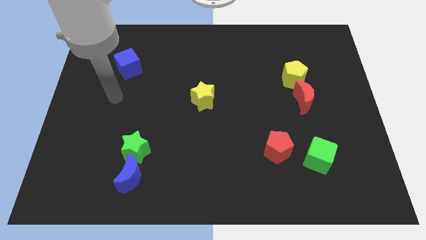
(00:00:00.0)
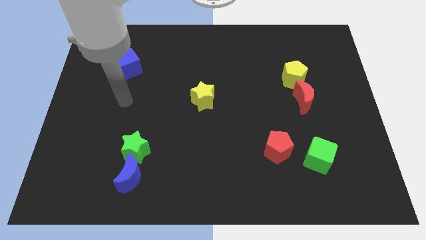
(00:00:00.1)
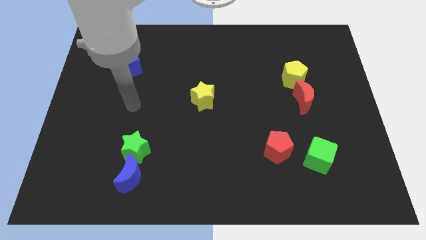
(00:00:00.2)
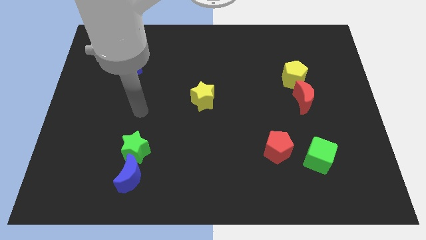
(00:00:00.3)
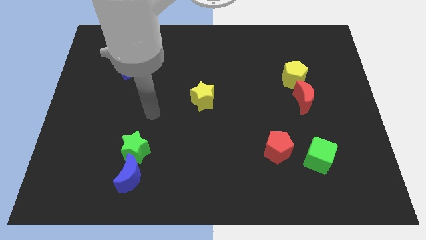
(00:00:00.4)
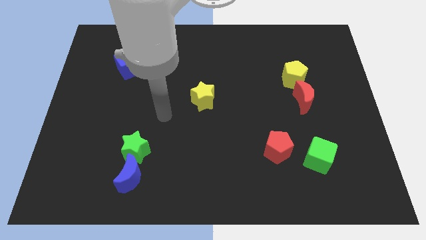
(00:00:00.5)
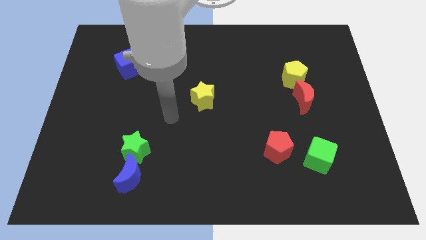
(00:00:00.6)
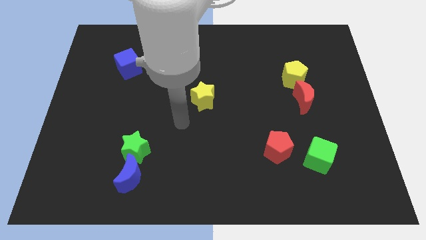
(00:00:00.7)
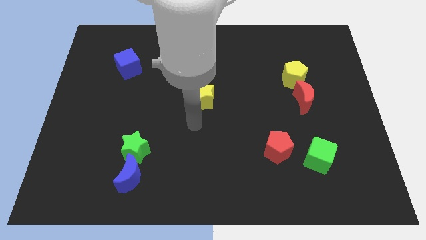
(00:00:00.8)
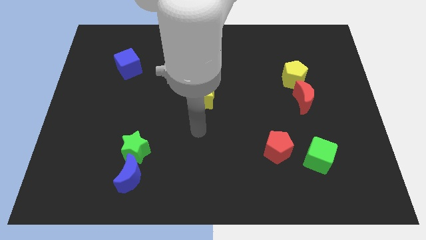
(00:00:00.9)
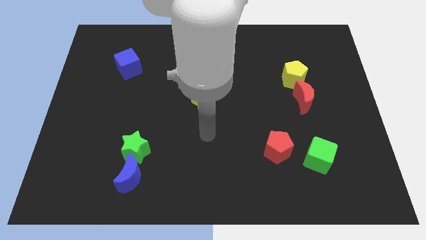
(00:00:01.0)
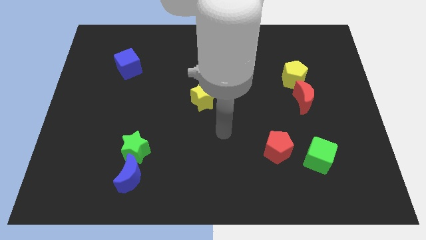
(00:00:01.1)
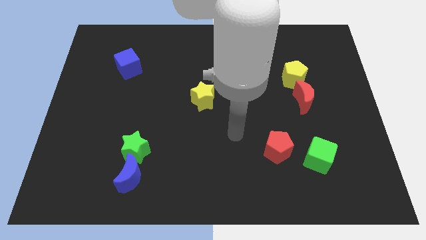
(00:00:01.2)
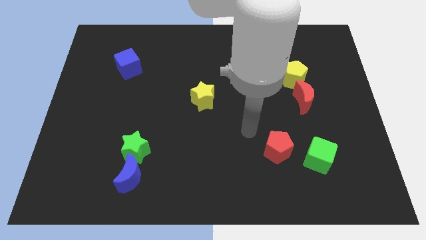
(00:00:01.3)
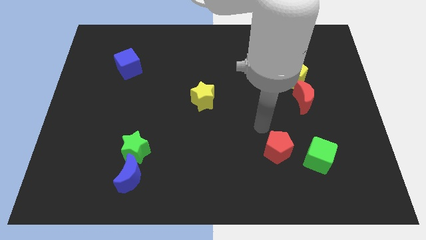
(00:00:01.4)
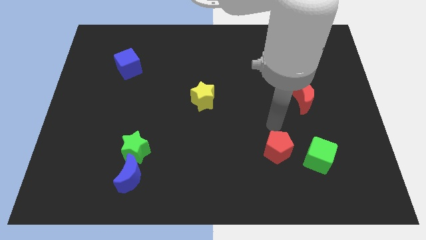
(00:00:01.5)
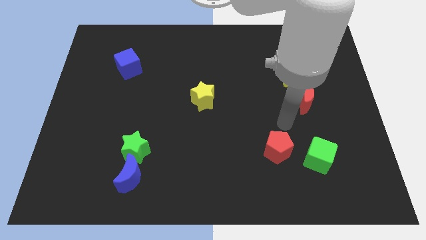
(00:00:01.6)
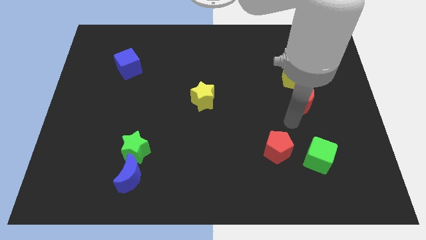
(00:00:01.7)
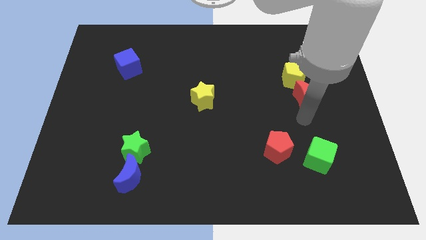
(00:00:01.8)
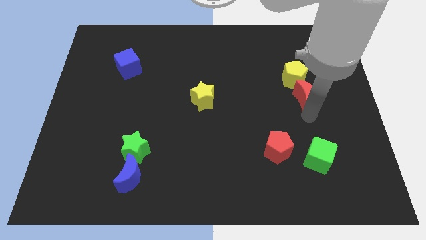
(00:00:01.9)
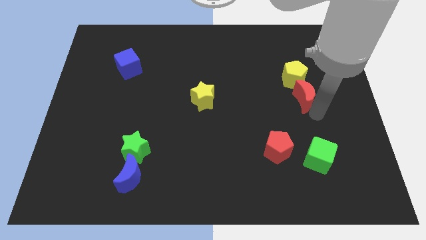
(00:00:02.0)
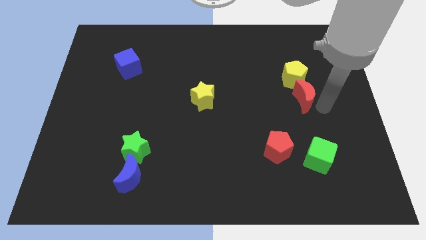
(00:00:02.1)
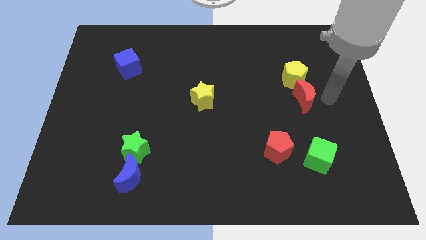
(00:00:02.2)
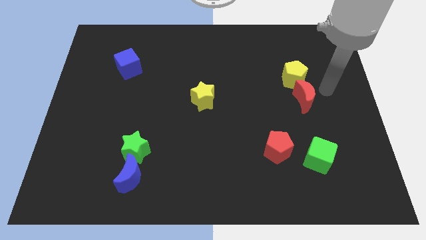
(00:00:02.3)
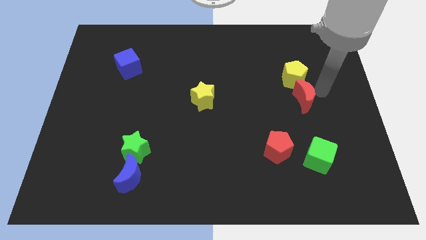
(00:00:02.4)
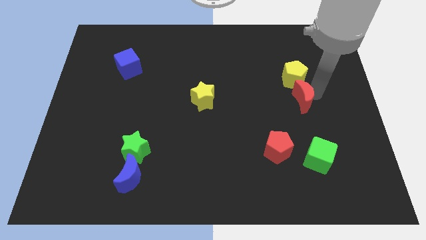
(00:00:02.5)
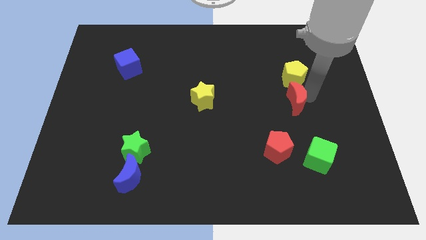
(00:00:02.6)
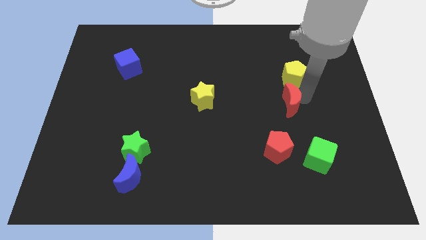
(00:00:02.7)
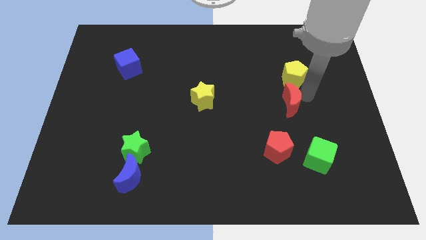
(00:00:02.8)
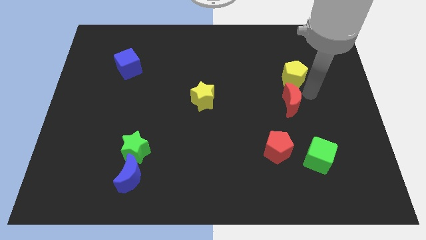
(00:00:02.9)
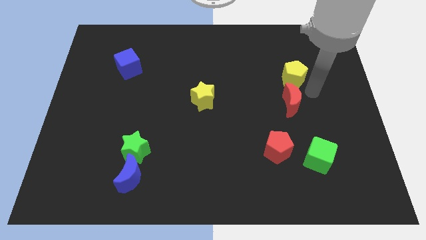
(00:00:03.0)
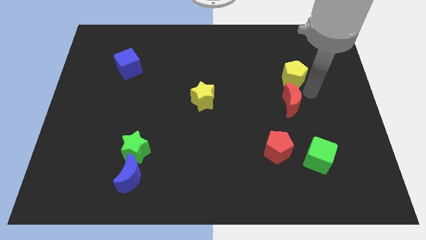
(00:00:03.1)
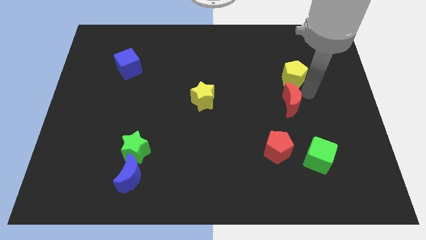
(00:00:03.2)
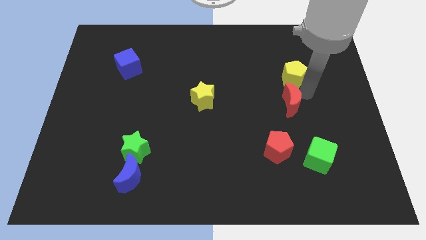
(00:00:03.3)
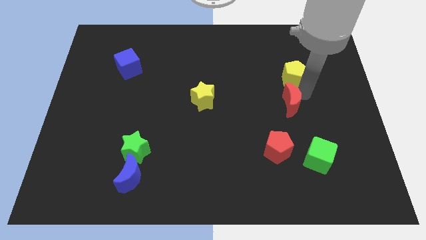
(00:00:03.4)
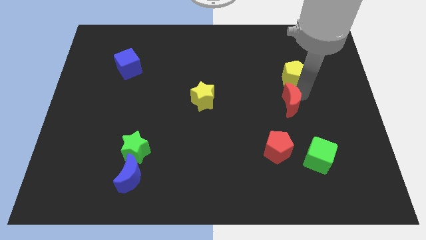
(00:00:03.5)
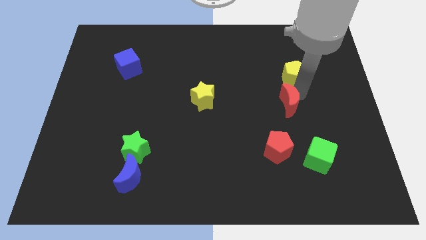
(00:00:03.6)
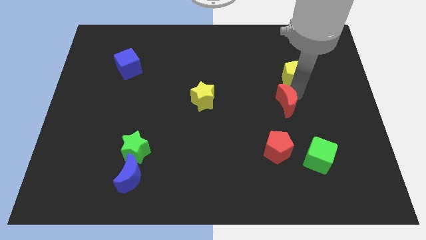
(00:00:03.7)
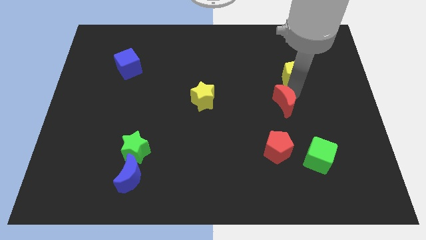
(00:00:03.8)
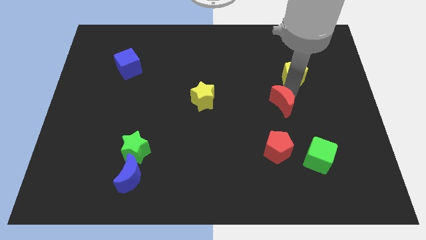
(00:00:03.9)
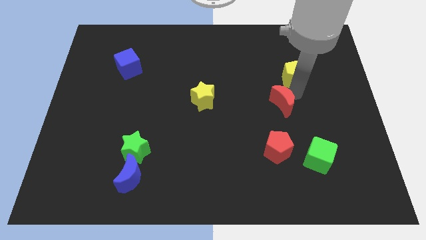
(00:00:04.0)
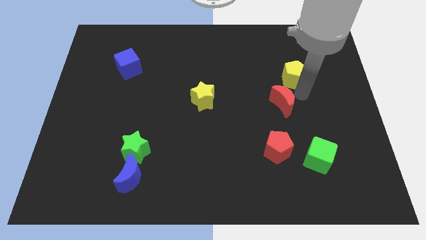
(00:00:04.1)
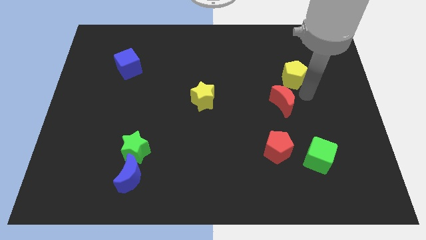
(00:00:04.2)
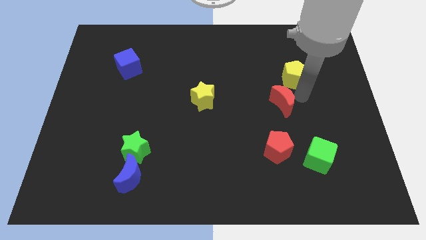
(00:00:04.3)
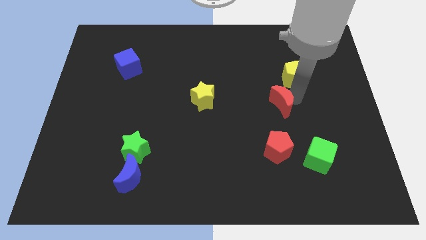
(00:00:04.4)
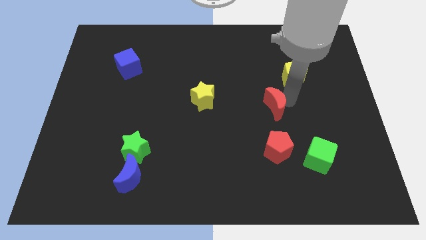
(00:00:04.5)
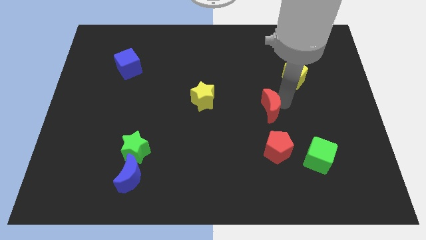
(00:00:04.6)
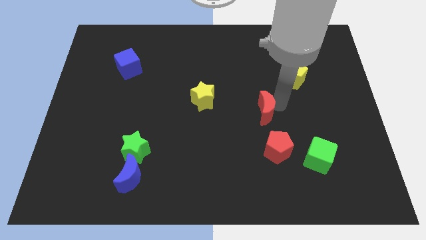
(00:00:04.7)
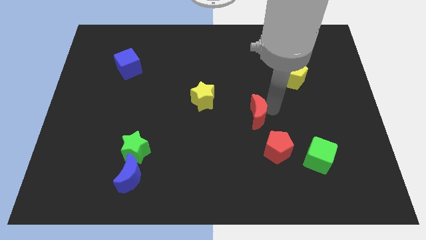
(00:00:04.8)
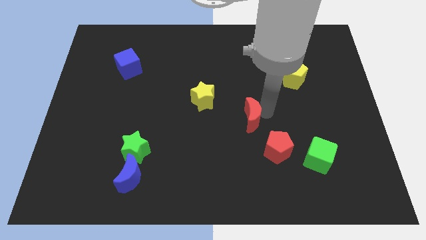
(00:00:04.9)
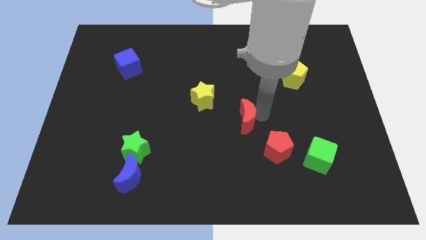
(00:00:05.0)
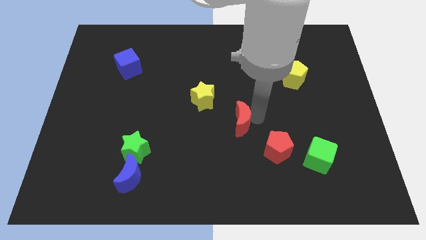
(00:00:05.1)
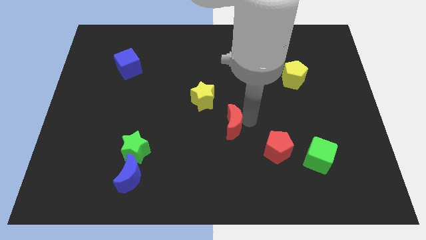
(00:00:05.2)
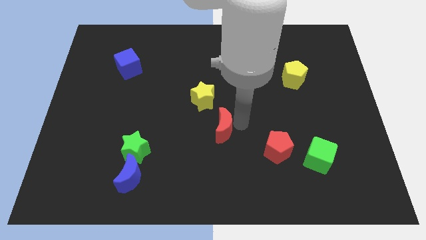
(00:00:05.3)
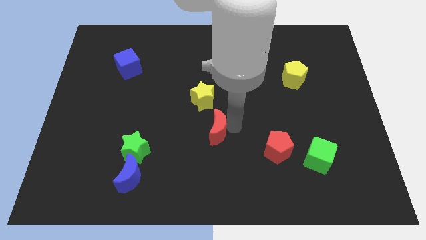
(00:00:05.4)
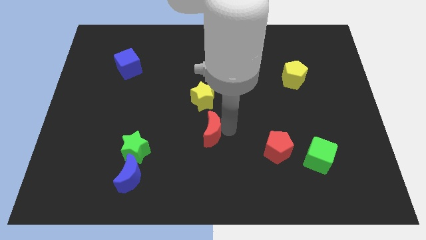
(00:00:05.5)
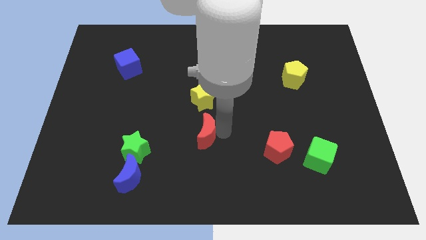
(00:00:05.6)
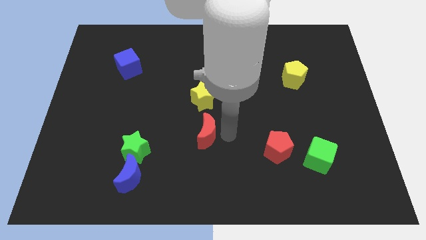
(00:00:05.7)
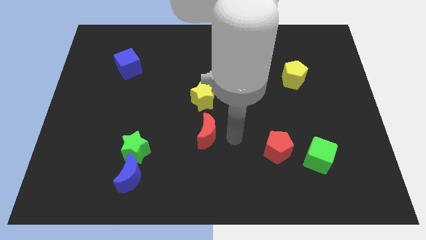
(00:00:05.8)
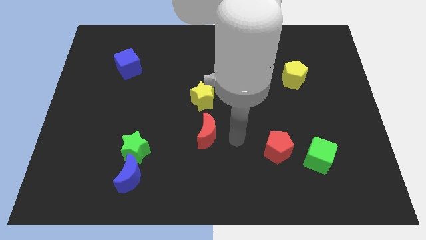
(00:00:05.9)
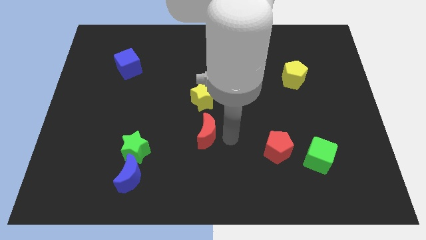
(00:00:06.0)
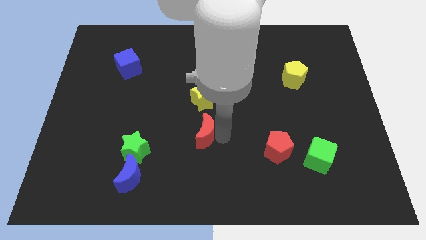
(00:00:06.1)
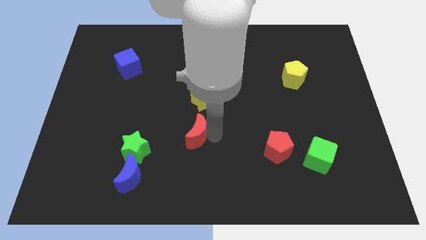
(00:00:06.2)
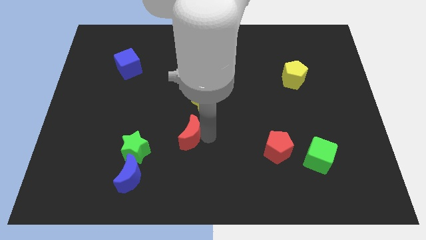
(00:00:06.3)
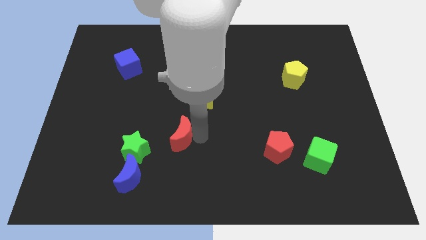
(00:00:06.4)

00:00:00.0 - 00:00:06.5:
move the red moon diagonally up and to the right of the green star

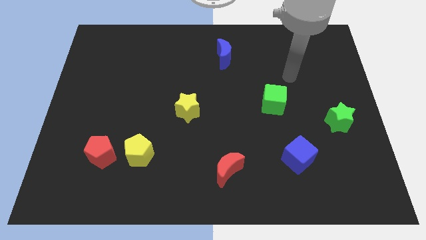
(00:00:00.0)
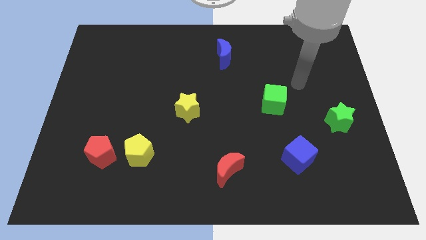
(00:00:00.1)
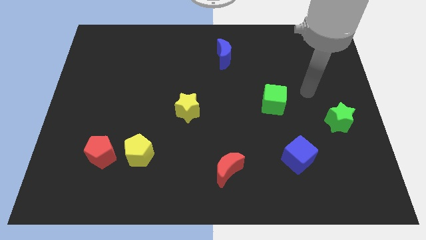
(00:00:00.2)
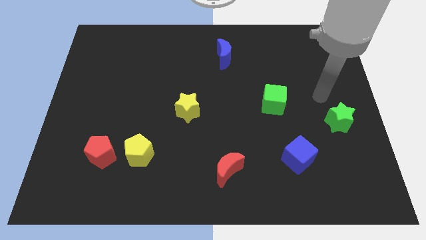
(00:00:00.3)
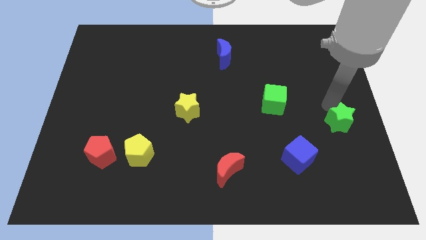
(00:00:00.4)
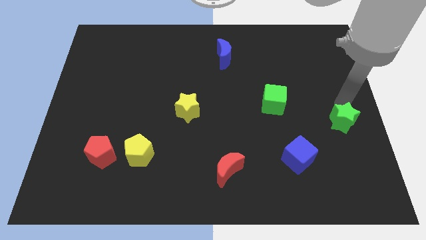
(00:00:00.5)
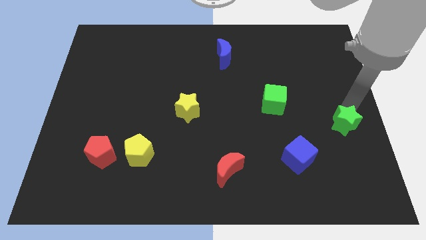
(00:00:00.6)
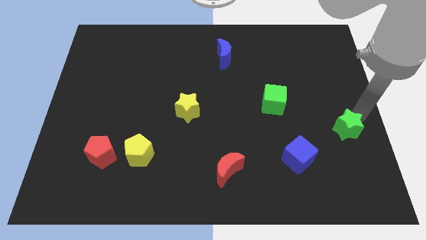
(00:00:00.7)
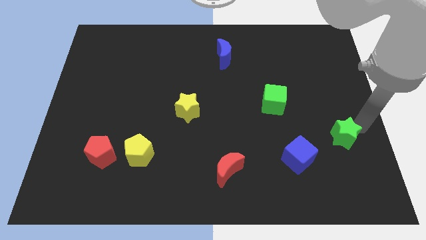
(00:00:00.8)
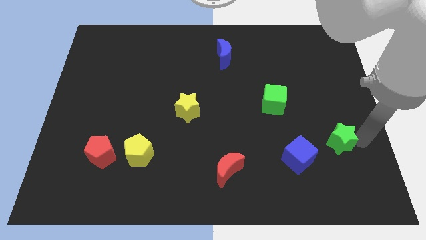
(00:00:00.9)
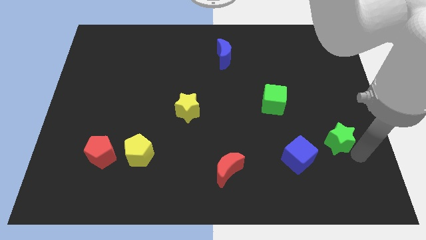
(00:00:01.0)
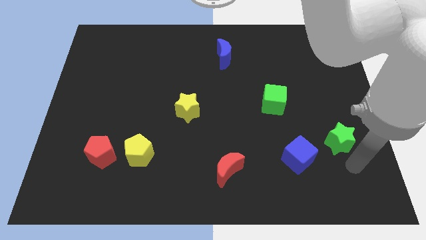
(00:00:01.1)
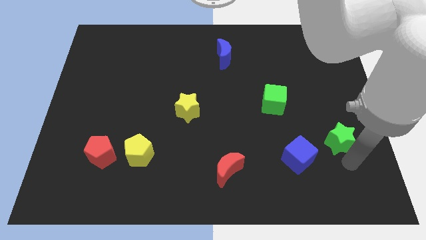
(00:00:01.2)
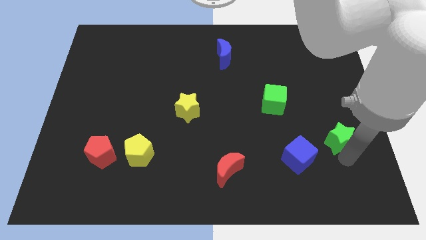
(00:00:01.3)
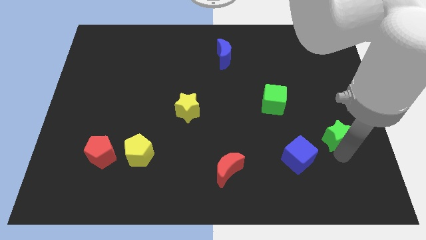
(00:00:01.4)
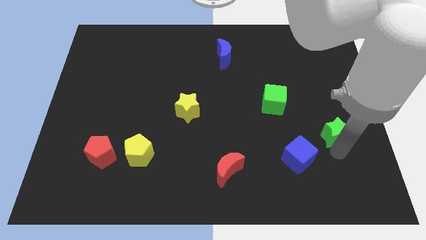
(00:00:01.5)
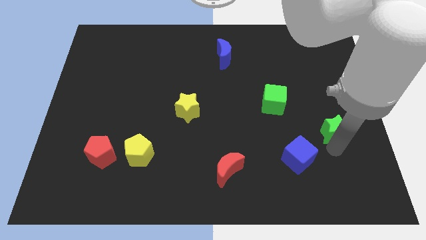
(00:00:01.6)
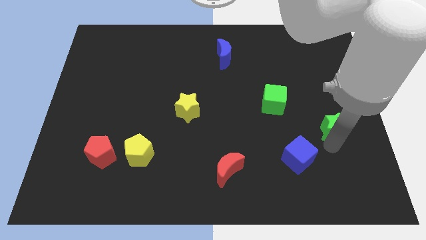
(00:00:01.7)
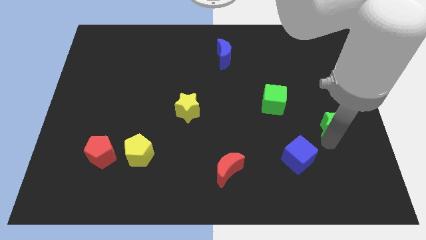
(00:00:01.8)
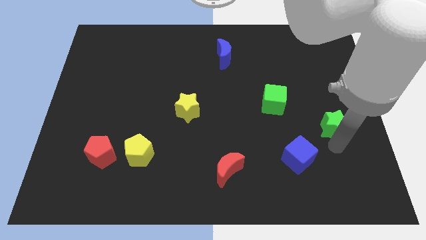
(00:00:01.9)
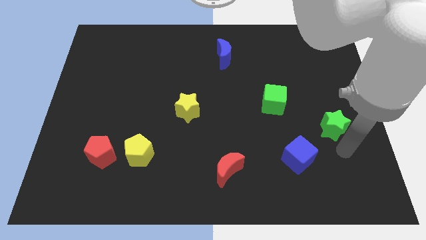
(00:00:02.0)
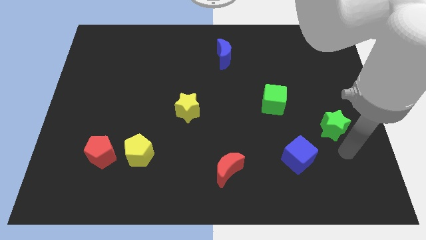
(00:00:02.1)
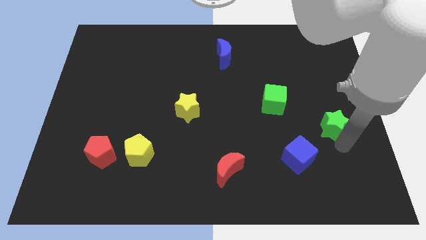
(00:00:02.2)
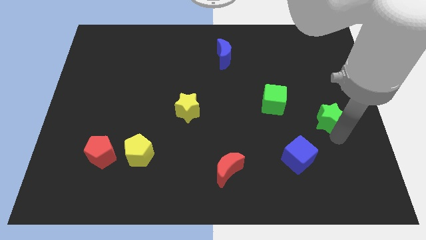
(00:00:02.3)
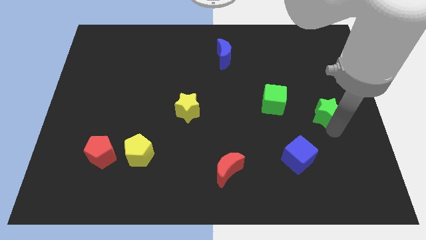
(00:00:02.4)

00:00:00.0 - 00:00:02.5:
push the green star to the right of the green cube
